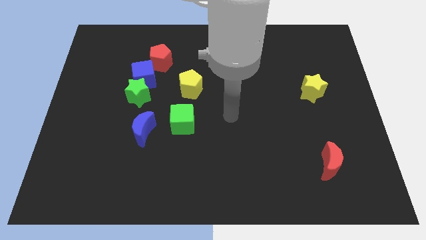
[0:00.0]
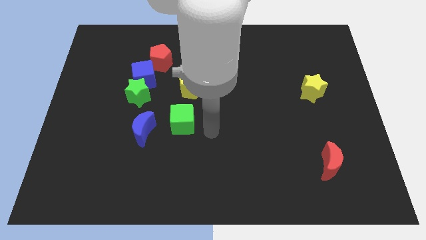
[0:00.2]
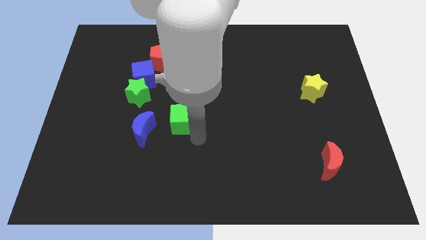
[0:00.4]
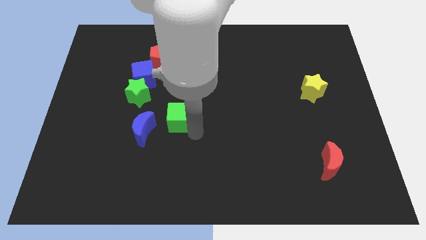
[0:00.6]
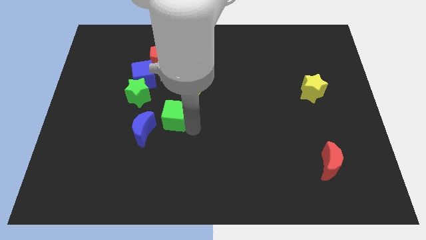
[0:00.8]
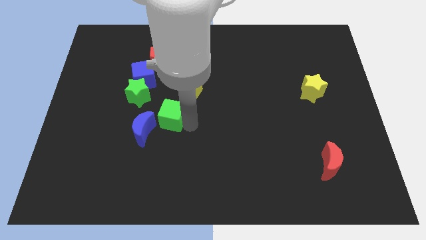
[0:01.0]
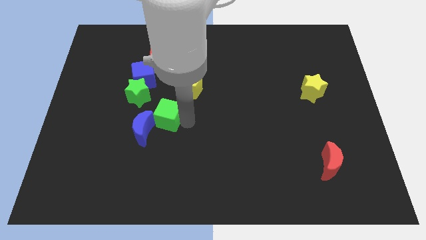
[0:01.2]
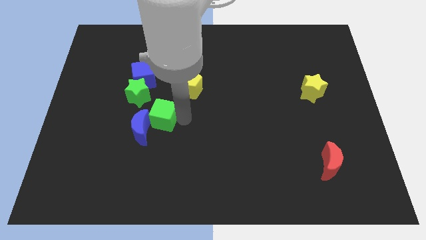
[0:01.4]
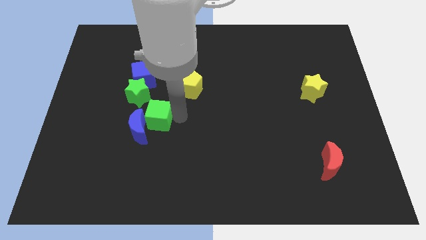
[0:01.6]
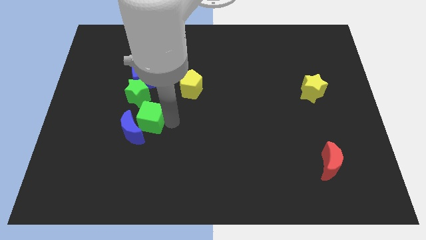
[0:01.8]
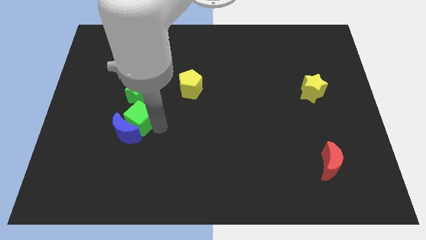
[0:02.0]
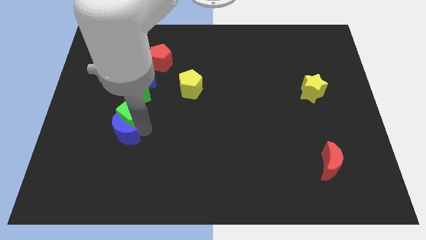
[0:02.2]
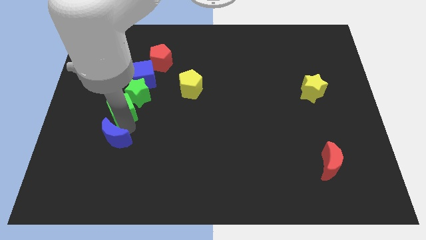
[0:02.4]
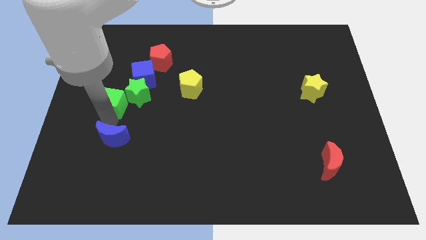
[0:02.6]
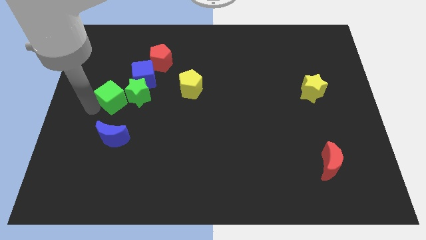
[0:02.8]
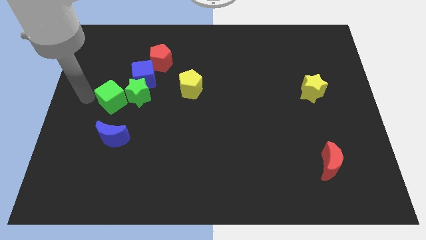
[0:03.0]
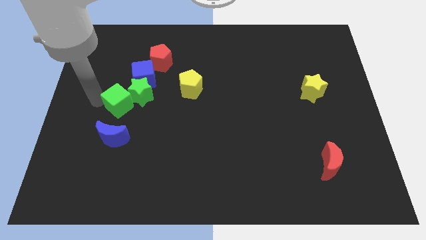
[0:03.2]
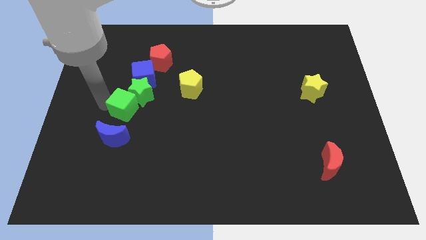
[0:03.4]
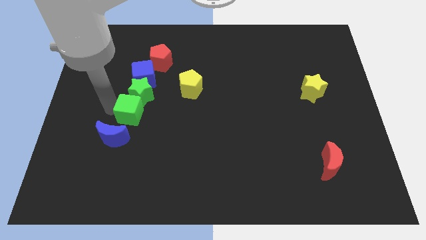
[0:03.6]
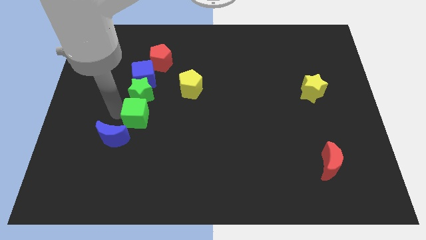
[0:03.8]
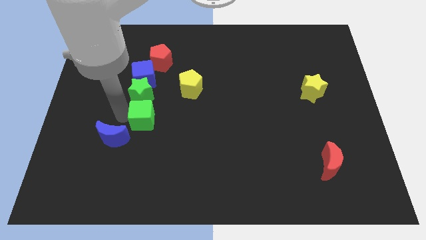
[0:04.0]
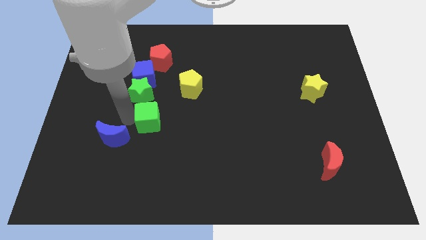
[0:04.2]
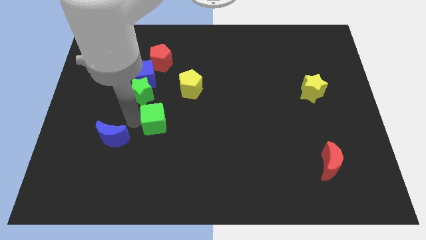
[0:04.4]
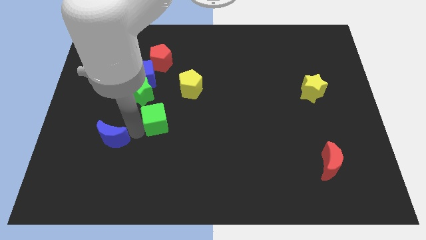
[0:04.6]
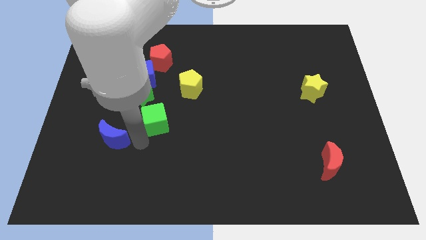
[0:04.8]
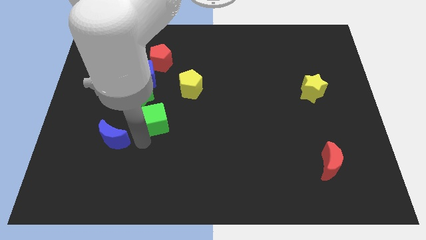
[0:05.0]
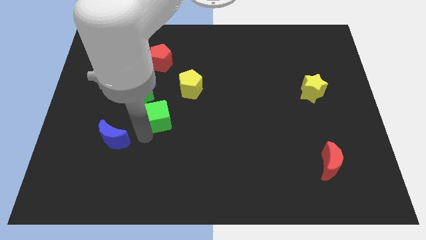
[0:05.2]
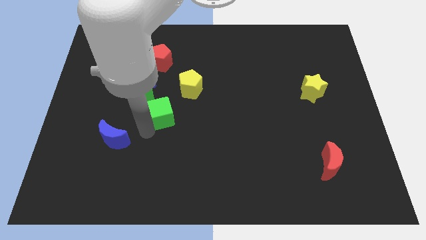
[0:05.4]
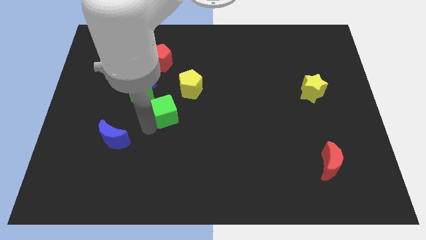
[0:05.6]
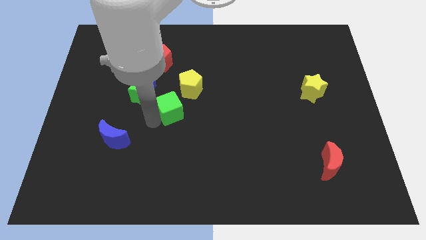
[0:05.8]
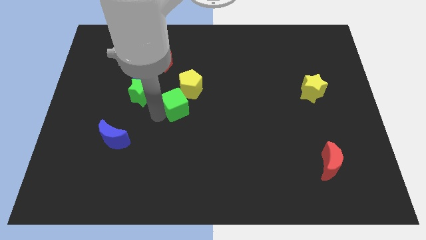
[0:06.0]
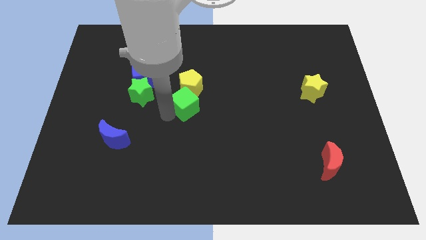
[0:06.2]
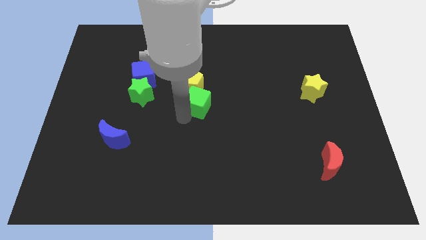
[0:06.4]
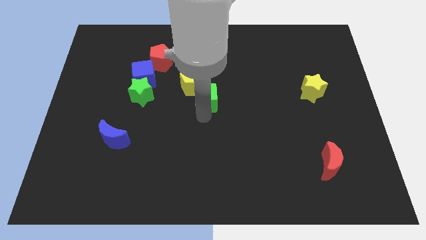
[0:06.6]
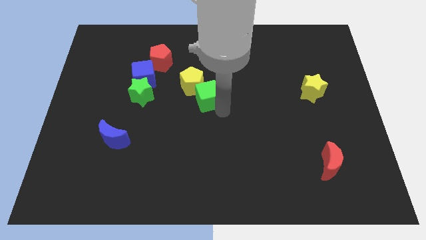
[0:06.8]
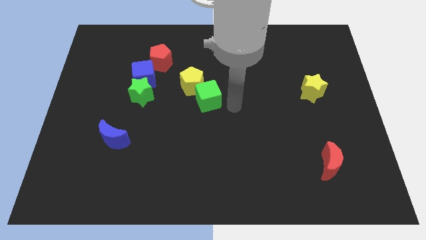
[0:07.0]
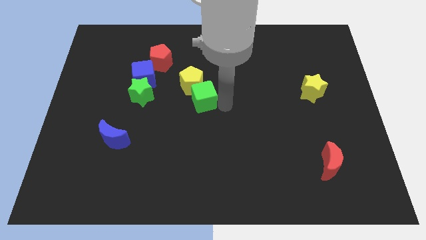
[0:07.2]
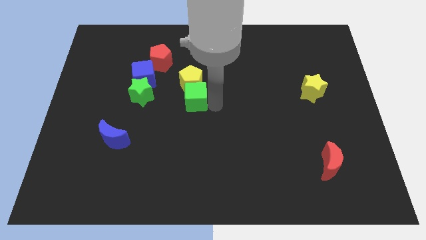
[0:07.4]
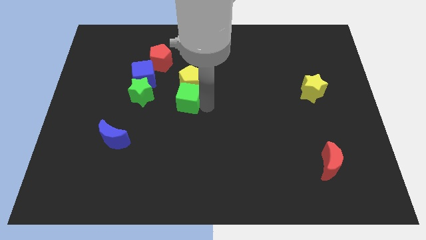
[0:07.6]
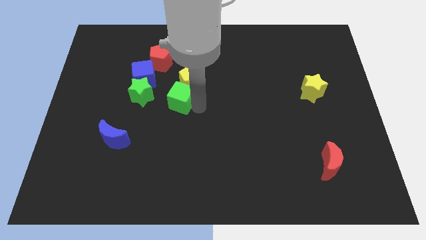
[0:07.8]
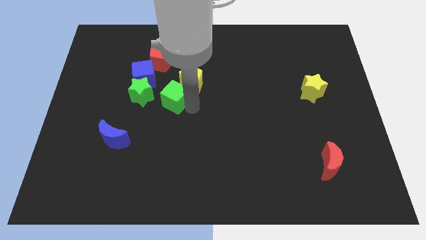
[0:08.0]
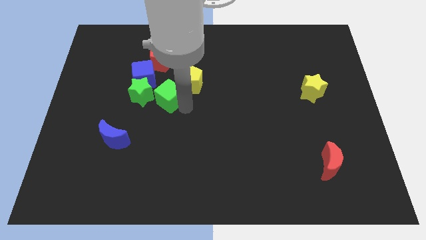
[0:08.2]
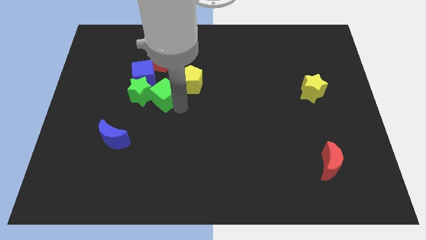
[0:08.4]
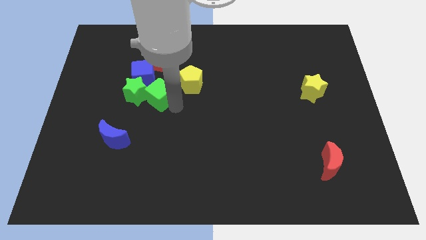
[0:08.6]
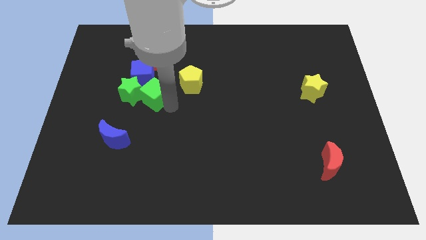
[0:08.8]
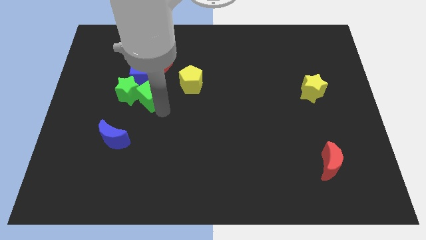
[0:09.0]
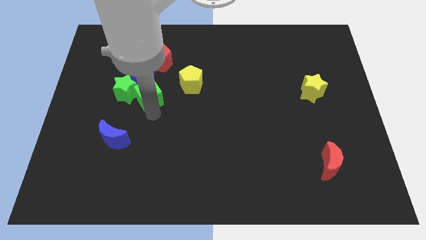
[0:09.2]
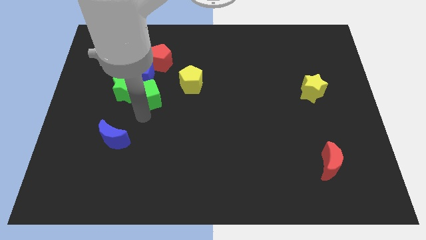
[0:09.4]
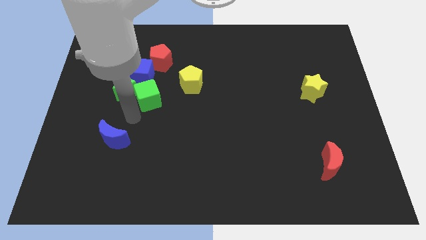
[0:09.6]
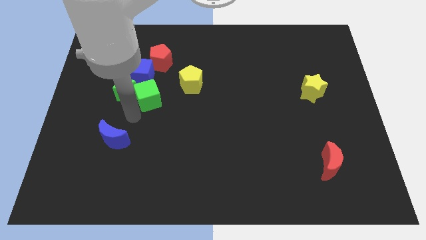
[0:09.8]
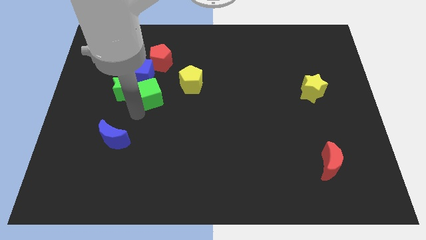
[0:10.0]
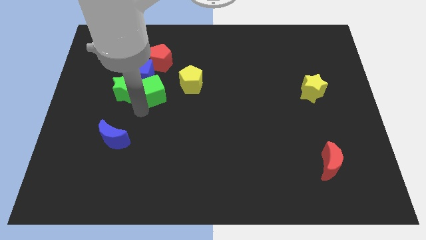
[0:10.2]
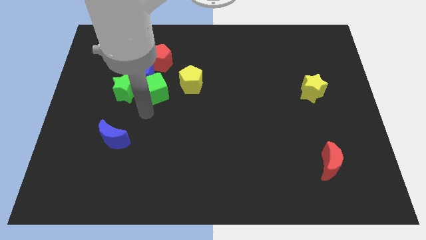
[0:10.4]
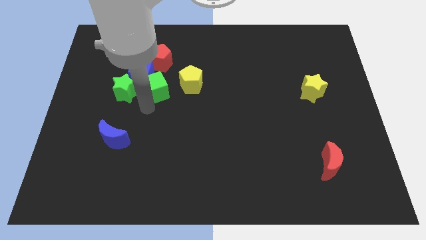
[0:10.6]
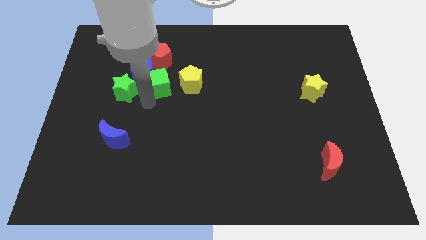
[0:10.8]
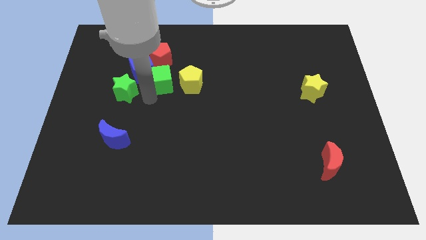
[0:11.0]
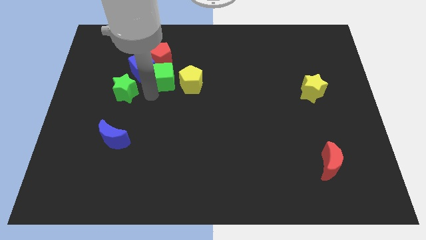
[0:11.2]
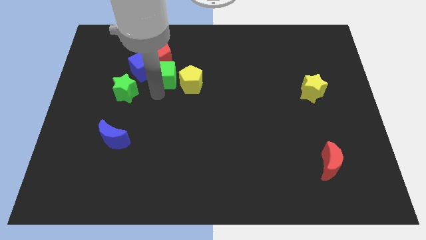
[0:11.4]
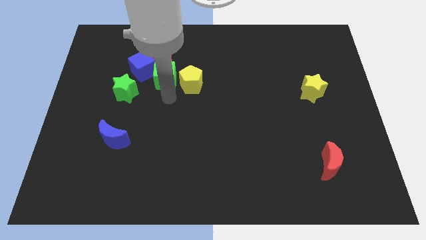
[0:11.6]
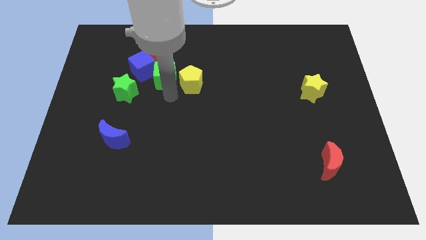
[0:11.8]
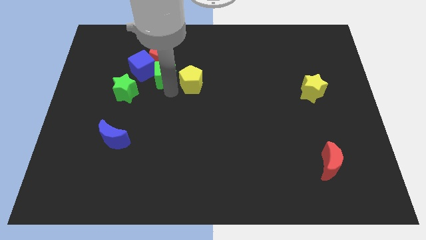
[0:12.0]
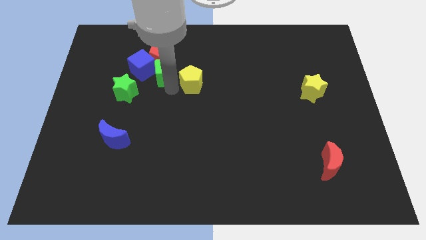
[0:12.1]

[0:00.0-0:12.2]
slide the green cube next to the red pentagon

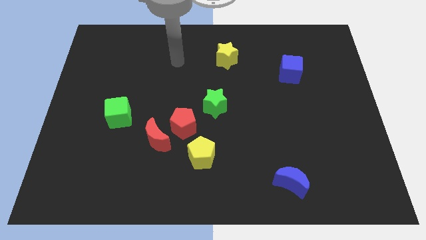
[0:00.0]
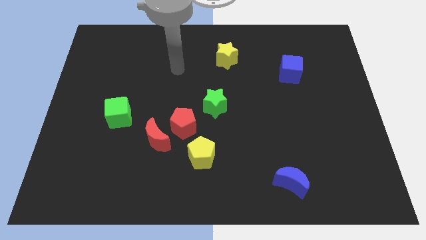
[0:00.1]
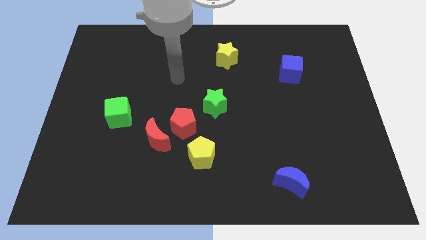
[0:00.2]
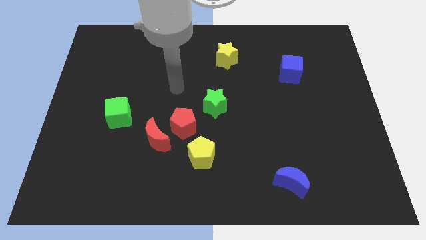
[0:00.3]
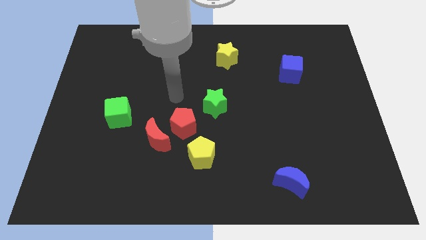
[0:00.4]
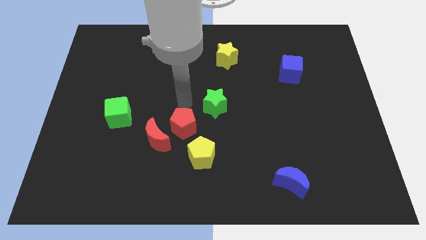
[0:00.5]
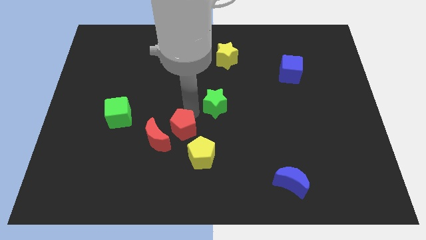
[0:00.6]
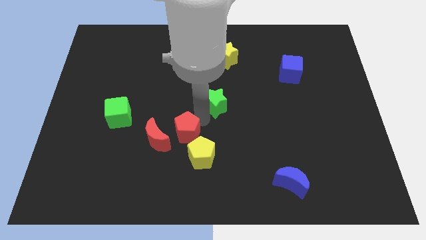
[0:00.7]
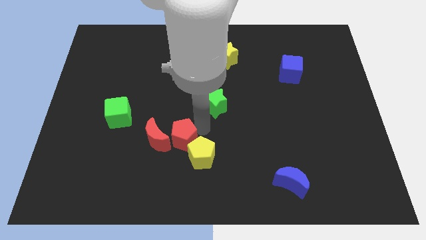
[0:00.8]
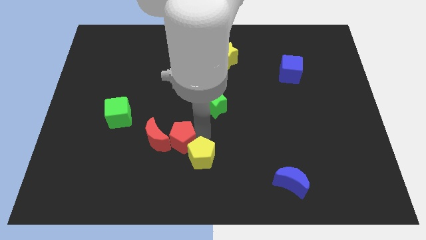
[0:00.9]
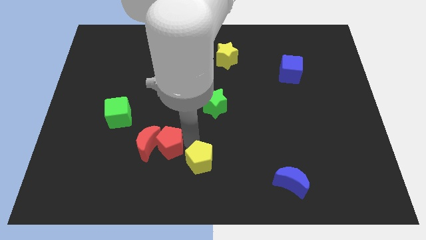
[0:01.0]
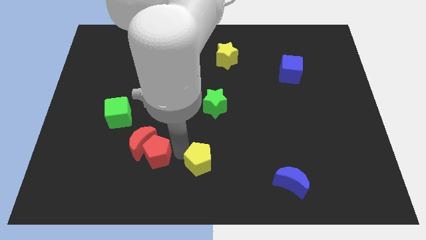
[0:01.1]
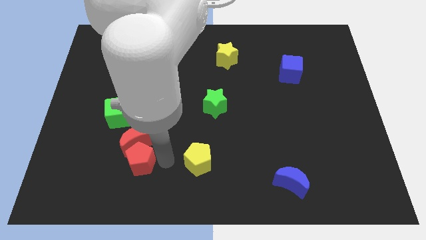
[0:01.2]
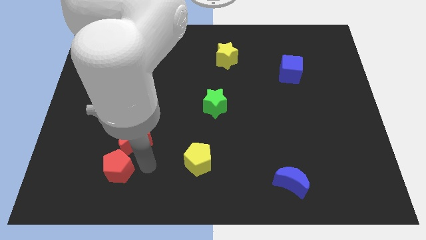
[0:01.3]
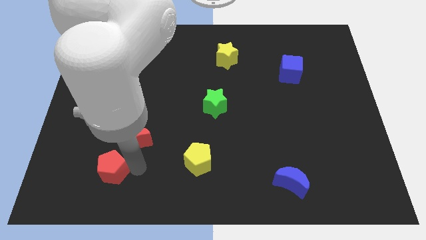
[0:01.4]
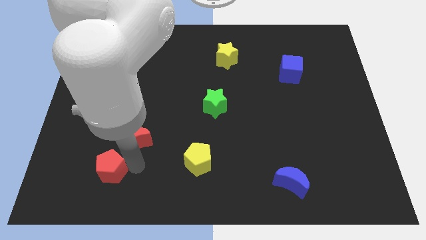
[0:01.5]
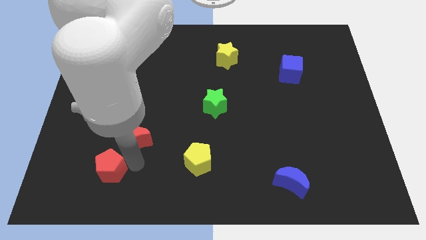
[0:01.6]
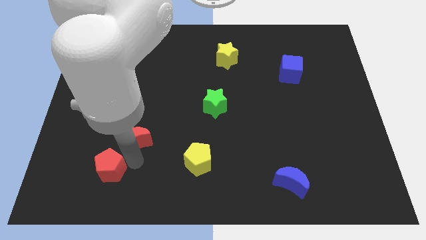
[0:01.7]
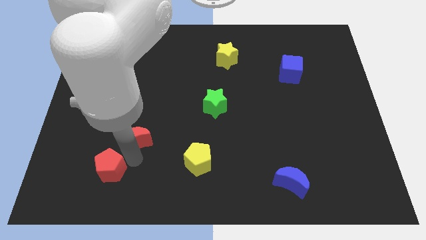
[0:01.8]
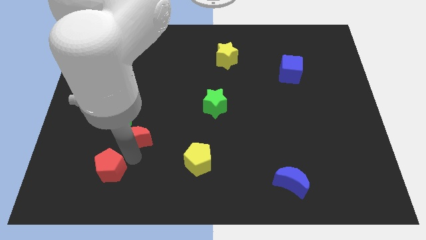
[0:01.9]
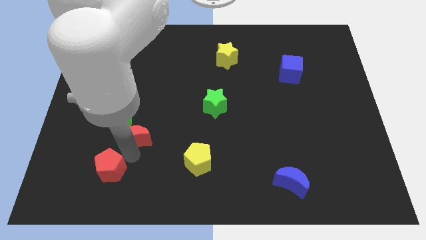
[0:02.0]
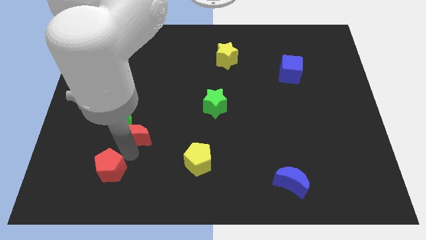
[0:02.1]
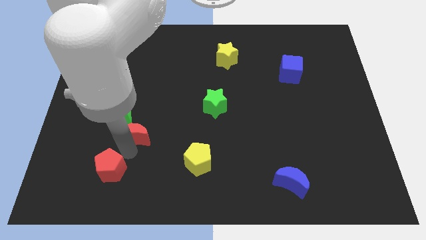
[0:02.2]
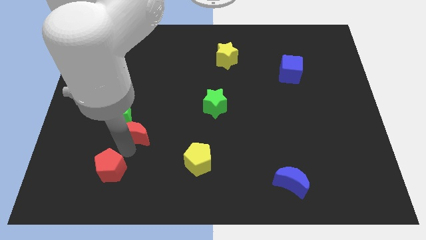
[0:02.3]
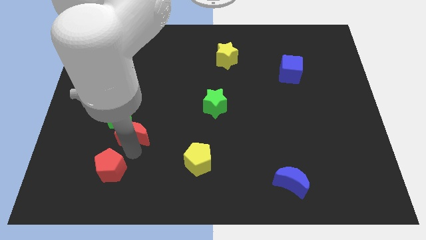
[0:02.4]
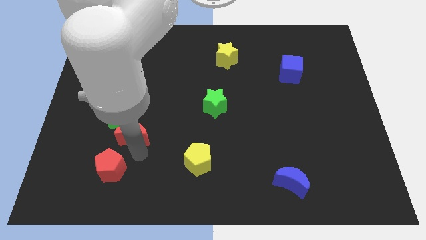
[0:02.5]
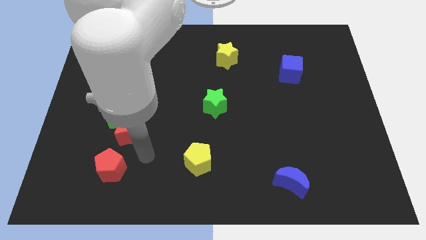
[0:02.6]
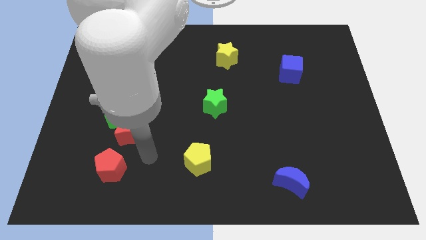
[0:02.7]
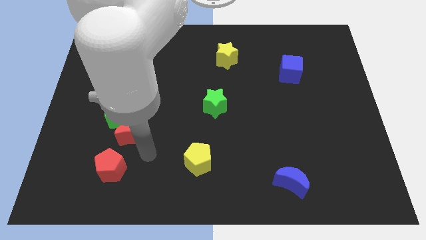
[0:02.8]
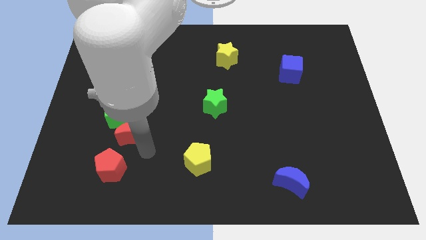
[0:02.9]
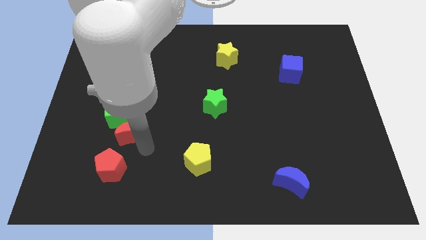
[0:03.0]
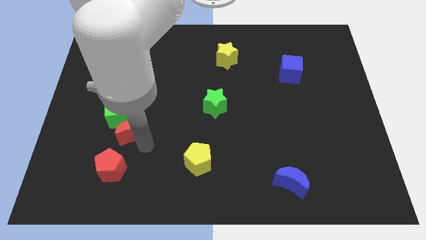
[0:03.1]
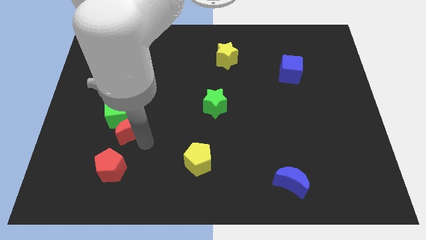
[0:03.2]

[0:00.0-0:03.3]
slide the red moon towards the green cube
